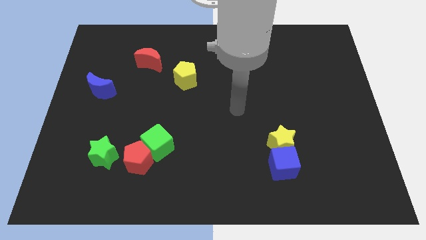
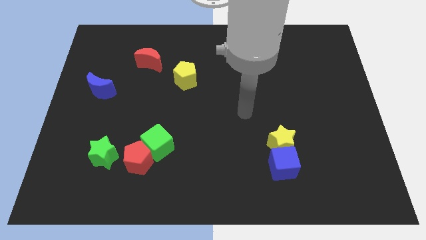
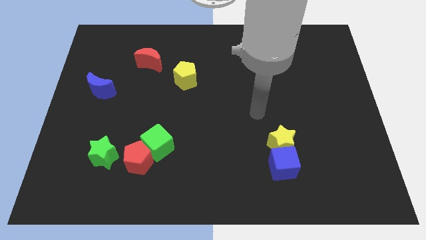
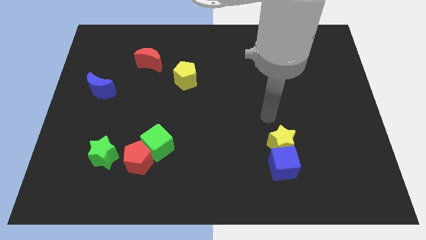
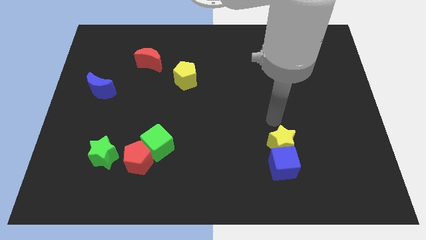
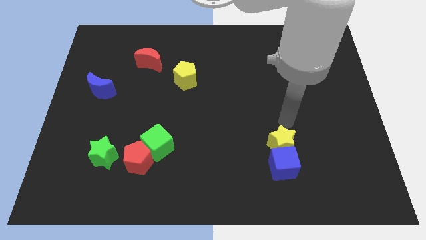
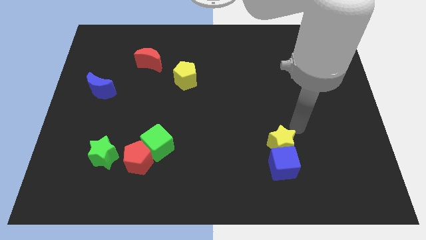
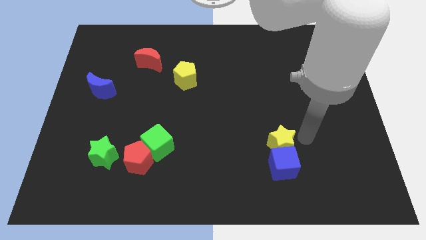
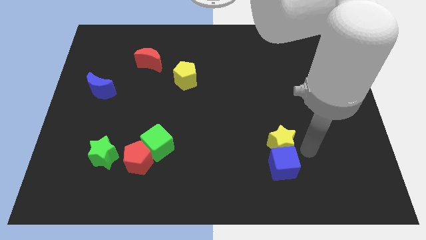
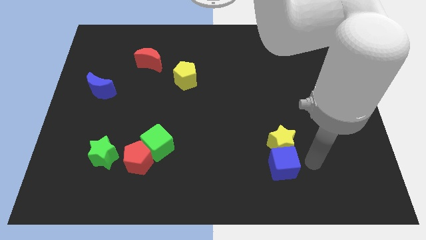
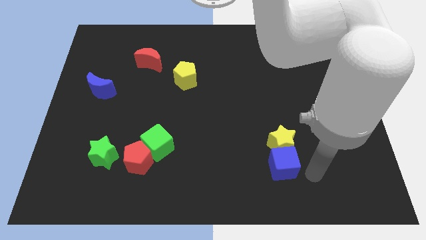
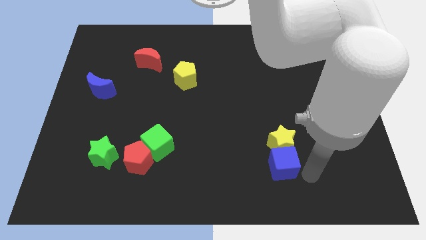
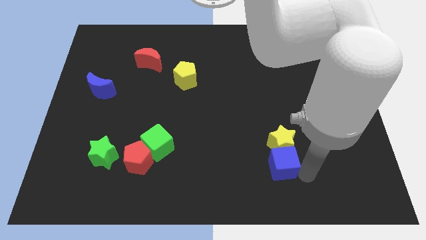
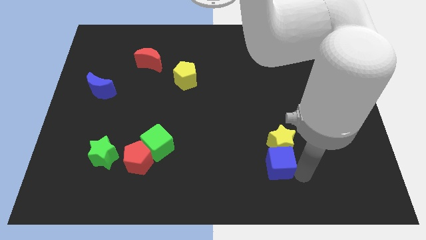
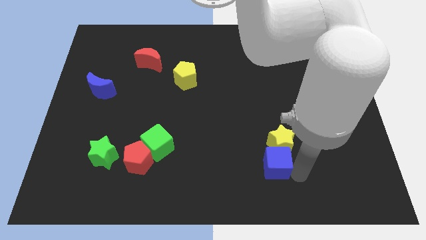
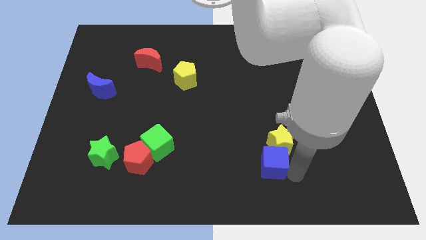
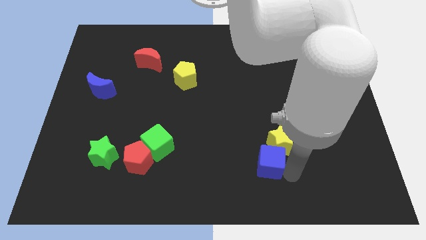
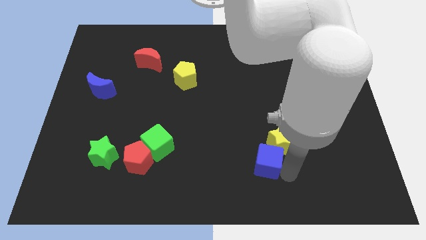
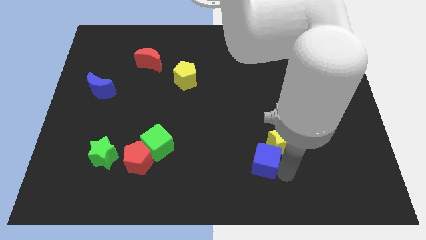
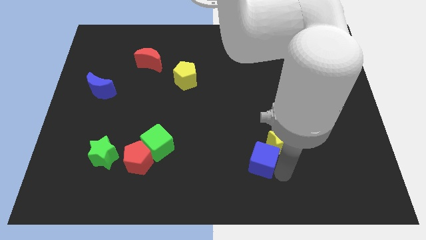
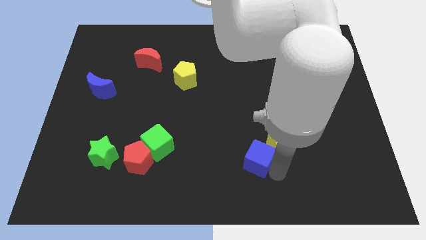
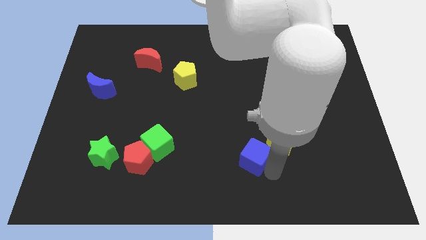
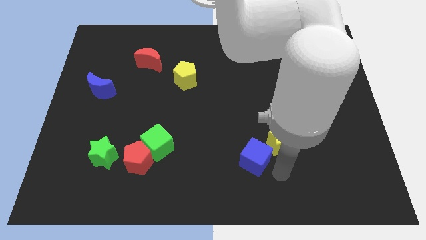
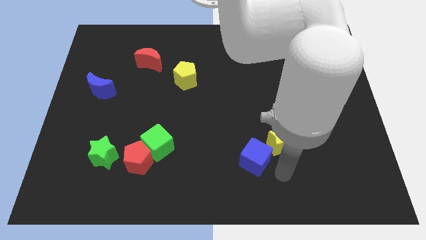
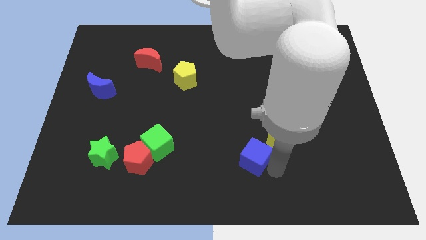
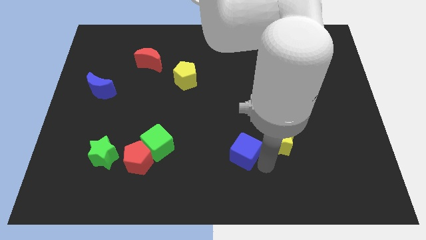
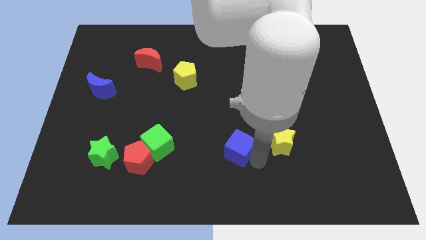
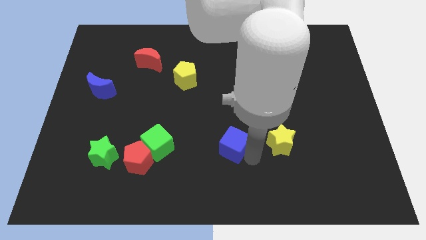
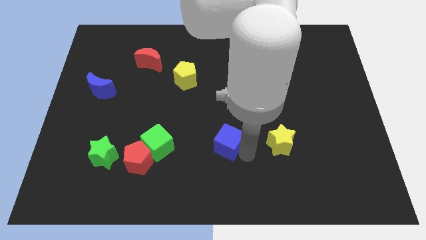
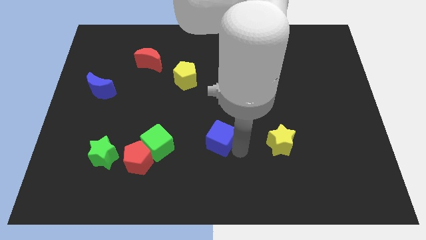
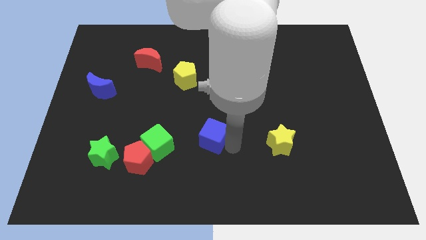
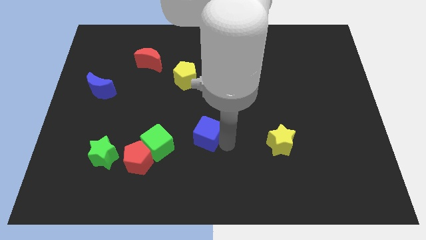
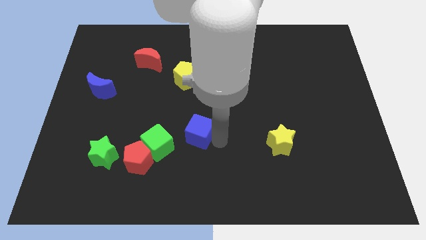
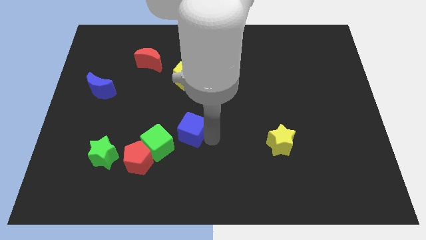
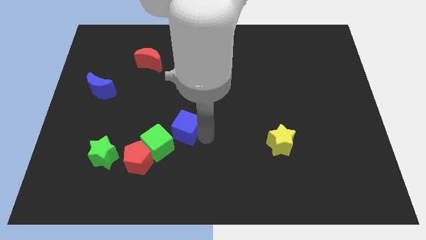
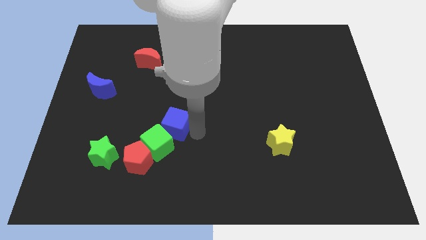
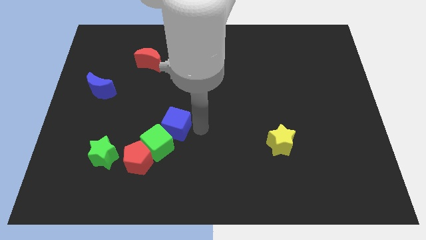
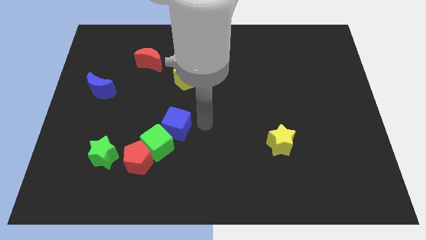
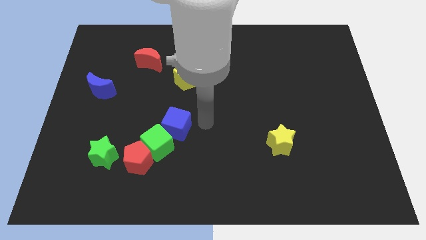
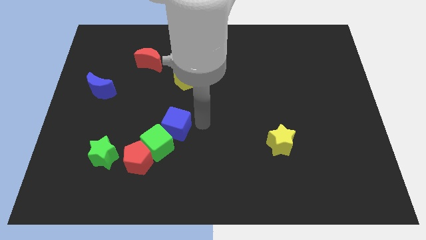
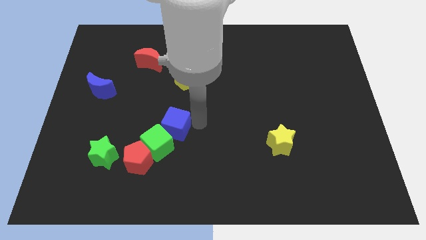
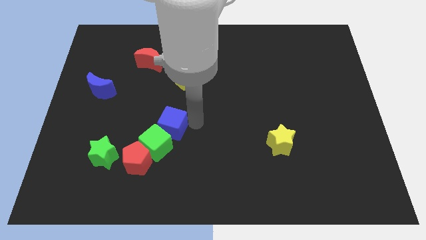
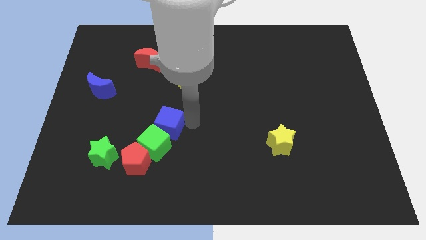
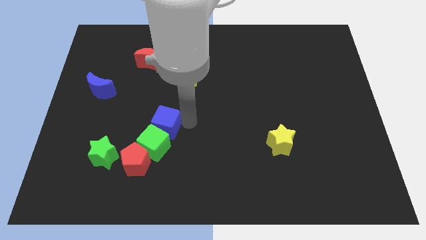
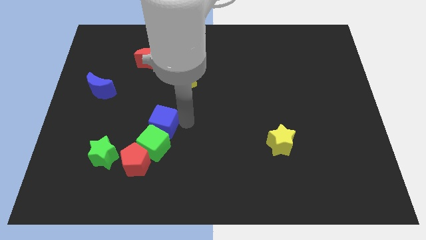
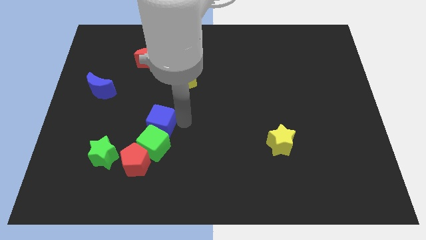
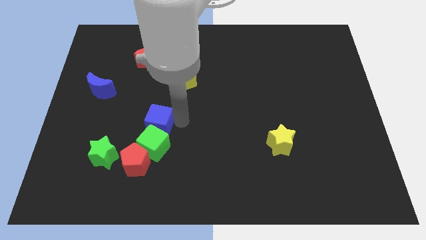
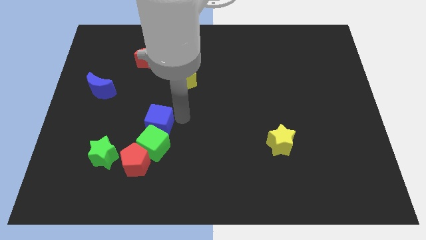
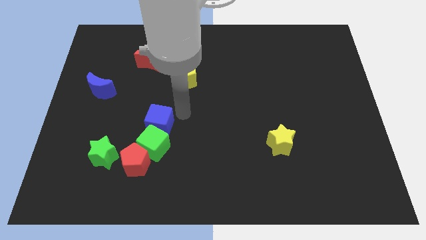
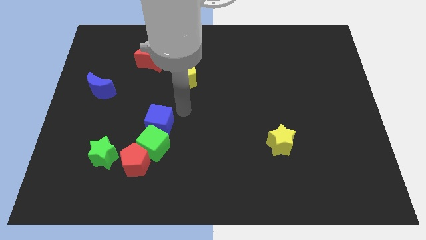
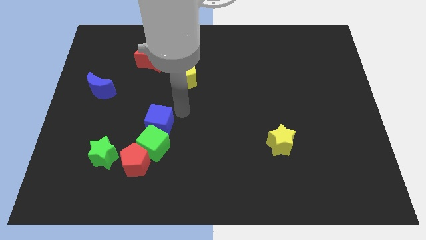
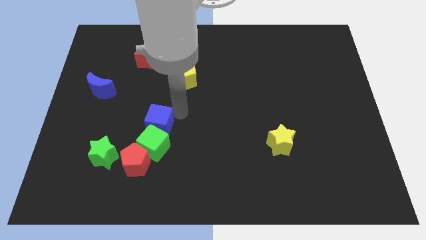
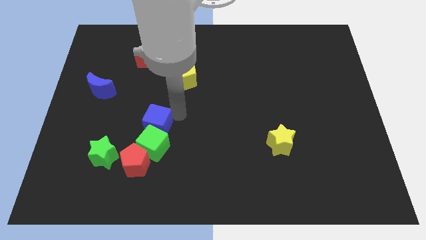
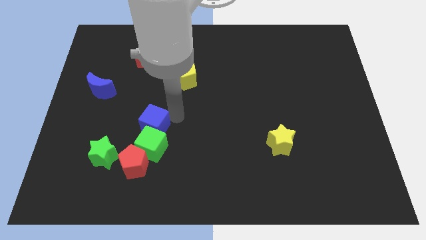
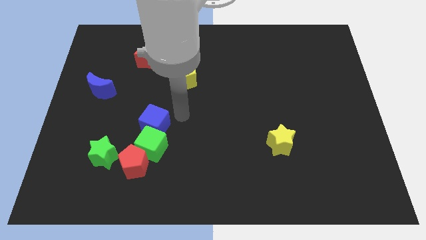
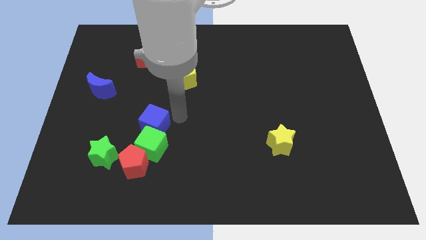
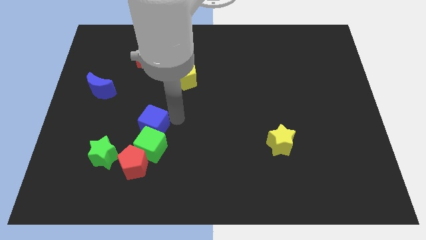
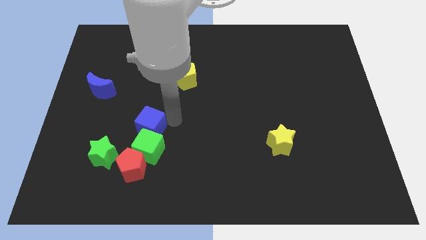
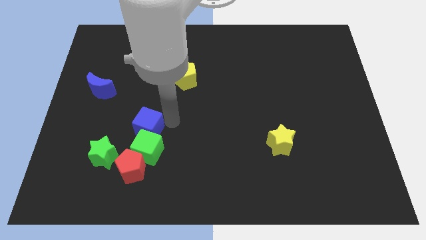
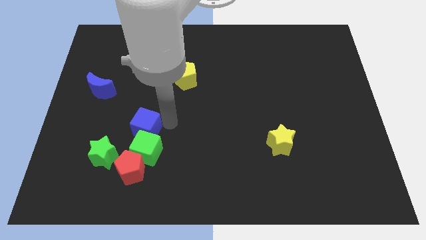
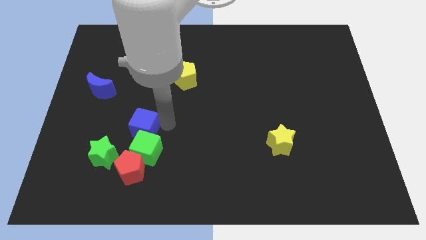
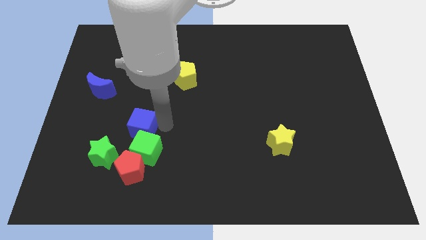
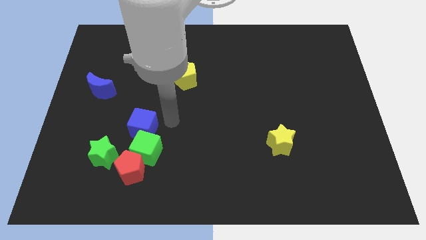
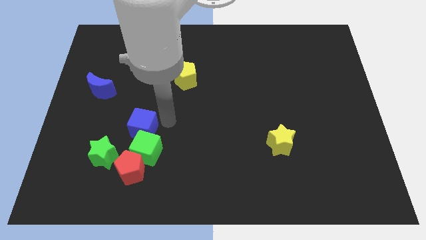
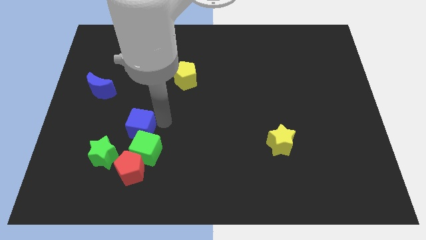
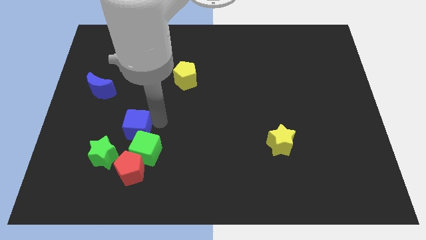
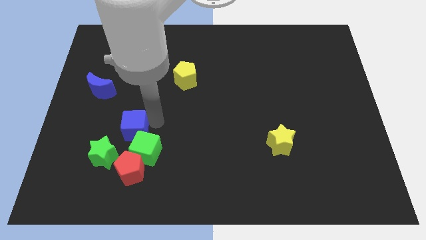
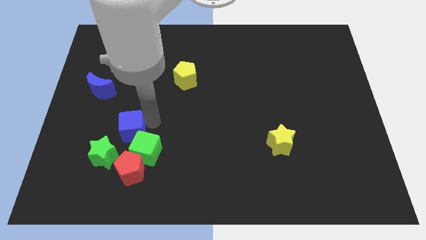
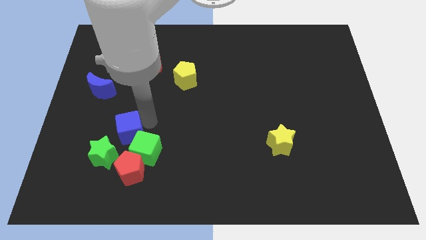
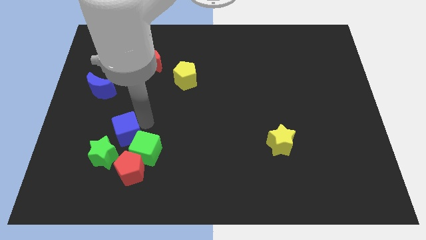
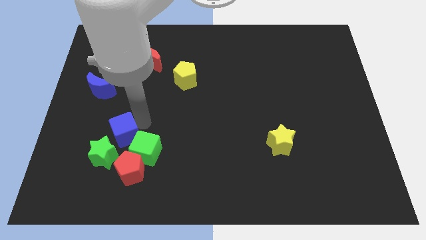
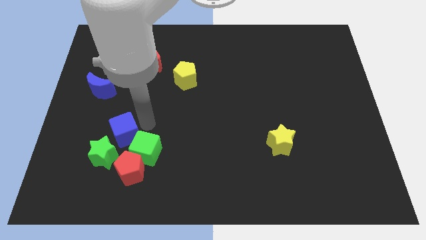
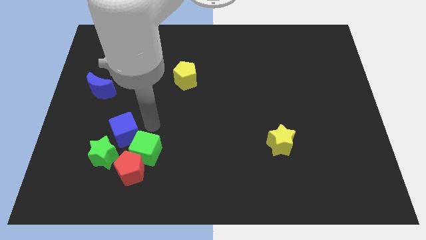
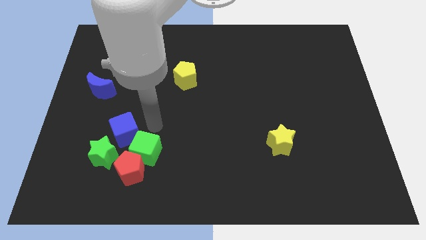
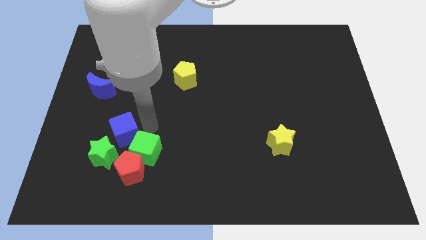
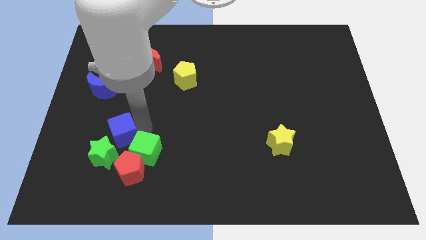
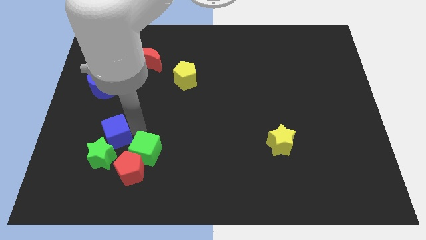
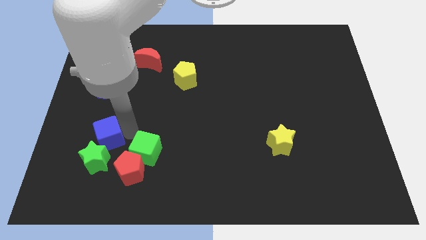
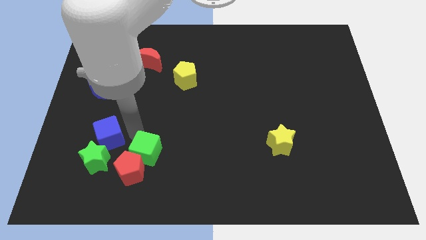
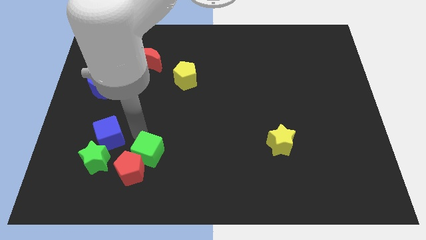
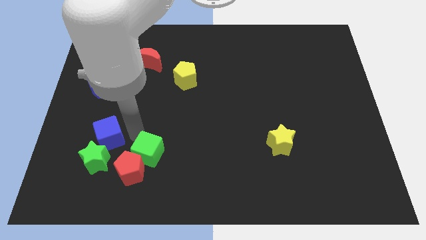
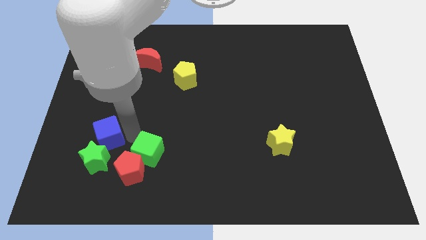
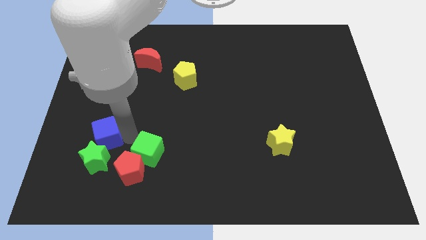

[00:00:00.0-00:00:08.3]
move the blue cube to the top left of the green star
